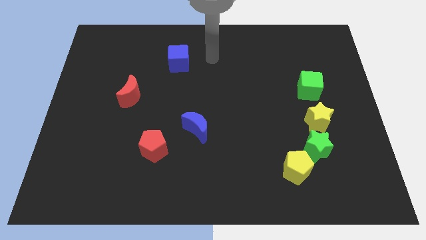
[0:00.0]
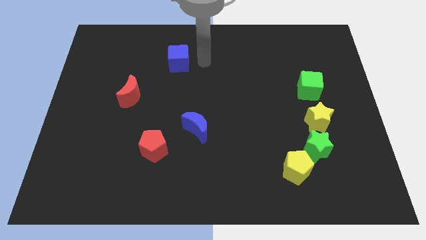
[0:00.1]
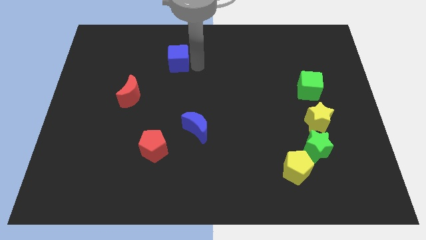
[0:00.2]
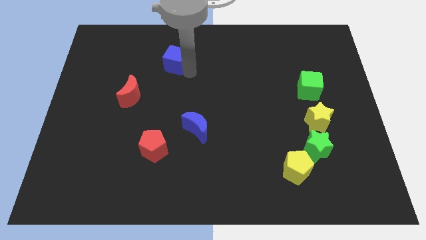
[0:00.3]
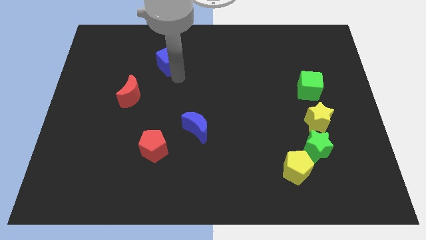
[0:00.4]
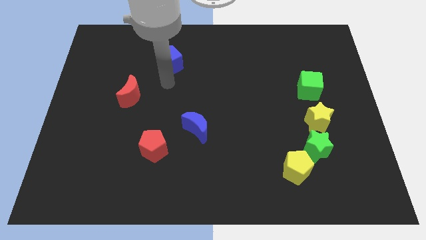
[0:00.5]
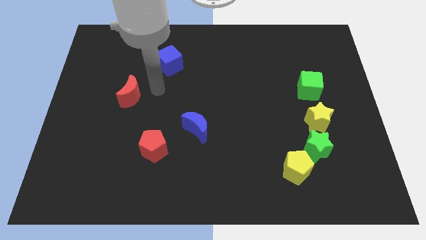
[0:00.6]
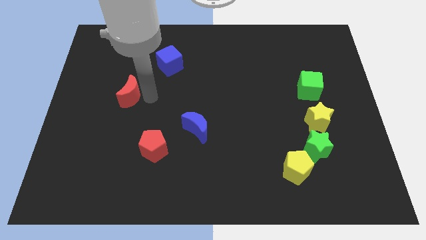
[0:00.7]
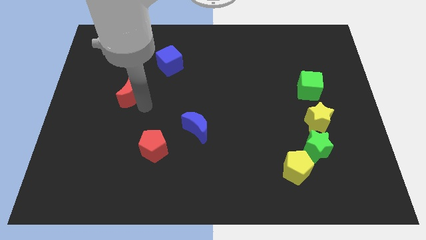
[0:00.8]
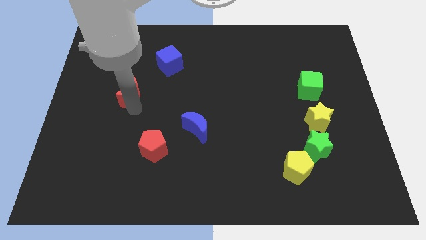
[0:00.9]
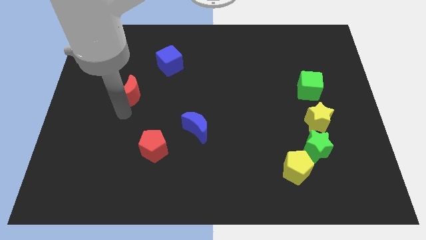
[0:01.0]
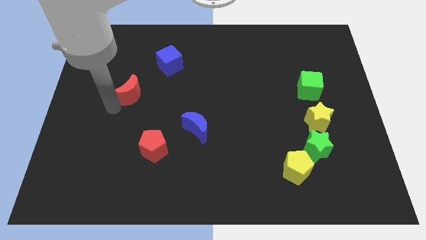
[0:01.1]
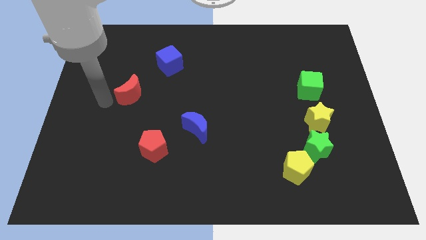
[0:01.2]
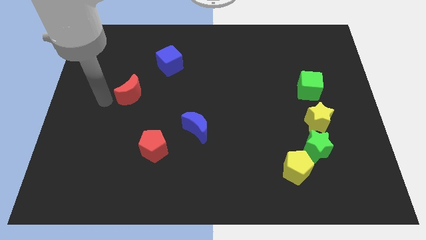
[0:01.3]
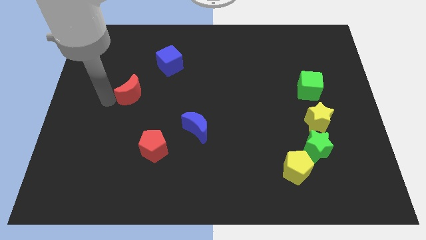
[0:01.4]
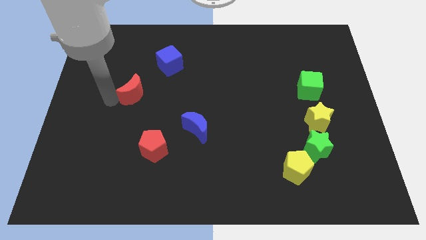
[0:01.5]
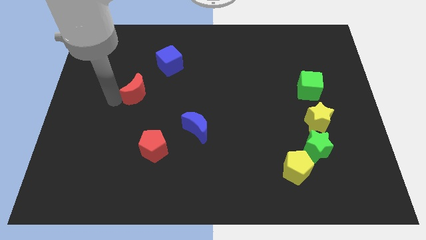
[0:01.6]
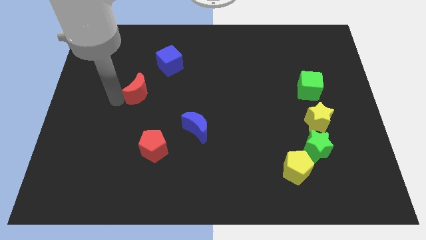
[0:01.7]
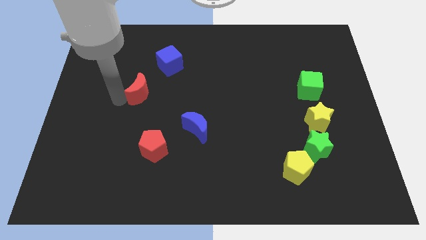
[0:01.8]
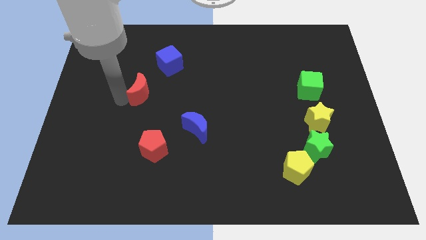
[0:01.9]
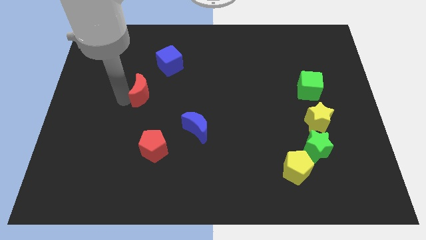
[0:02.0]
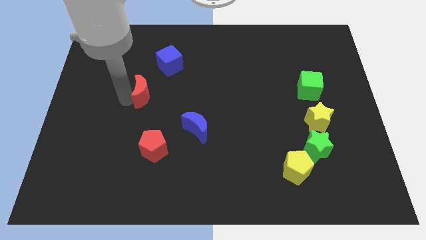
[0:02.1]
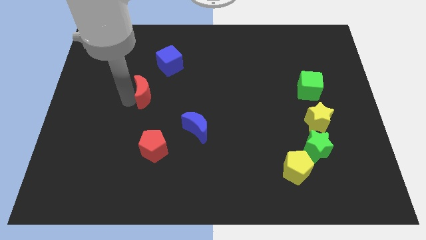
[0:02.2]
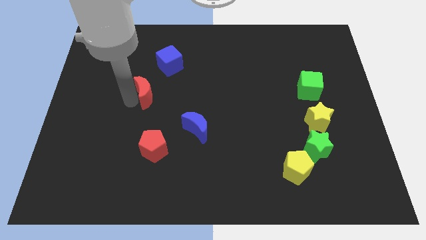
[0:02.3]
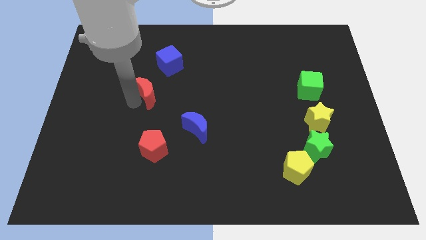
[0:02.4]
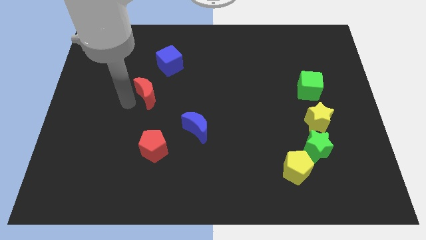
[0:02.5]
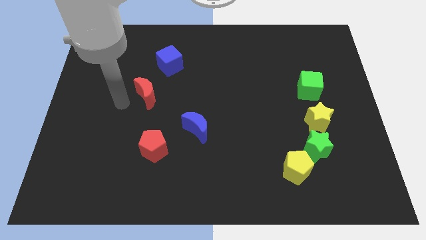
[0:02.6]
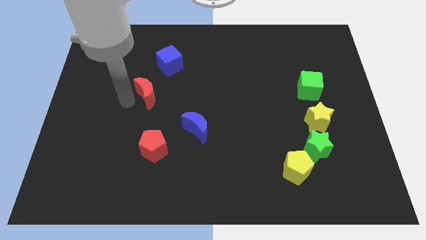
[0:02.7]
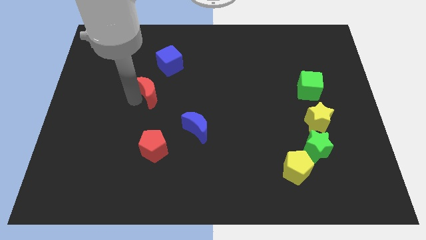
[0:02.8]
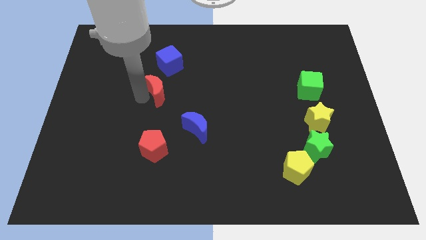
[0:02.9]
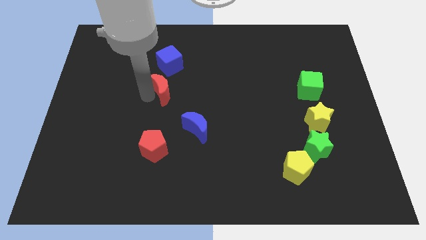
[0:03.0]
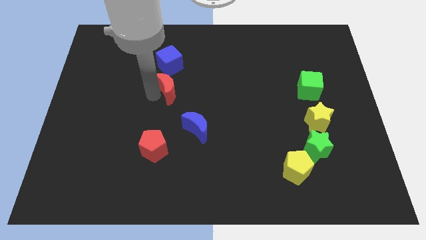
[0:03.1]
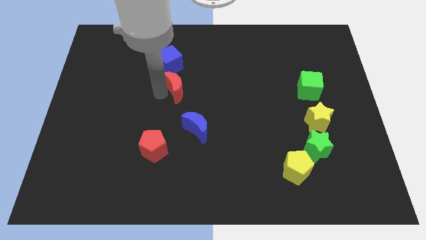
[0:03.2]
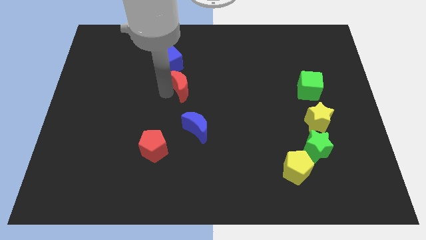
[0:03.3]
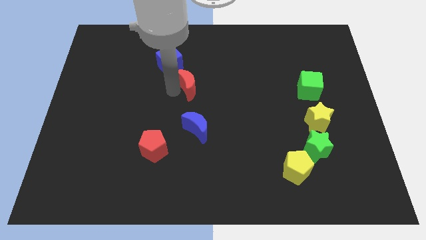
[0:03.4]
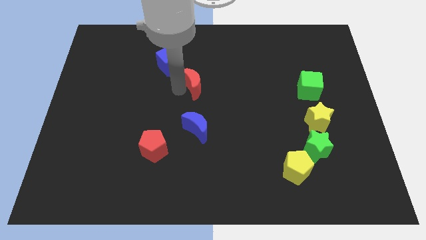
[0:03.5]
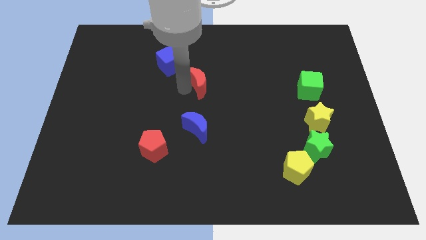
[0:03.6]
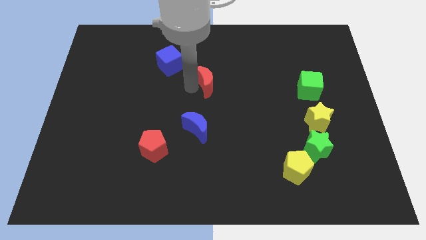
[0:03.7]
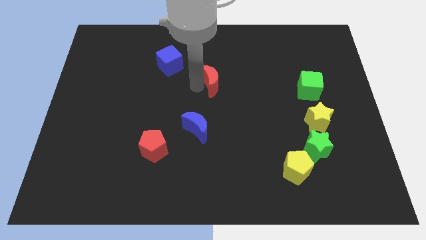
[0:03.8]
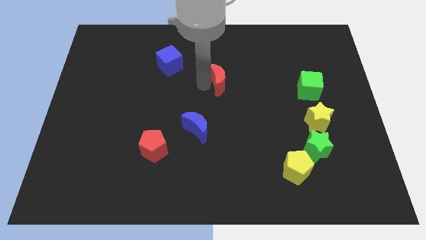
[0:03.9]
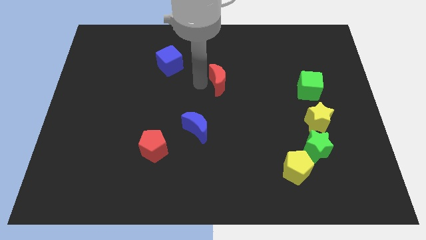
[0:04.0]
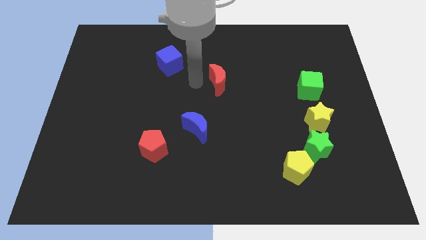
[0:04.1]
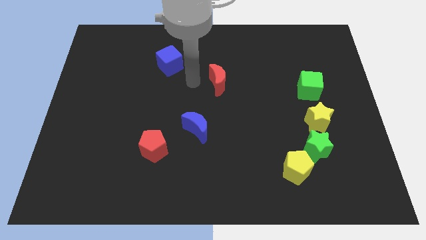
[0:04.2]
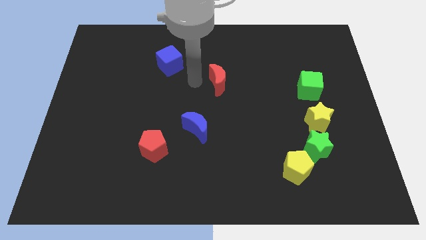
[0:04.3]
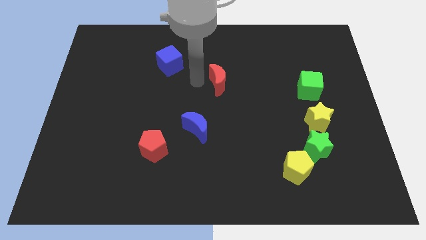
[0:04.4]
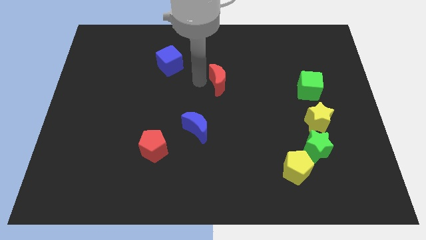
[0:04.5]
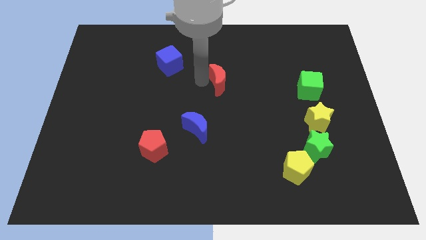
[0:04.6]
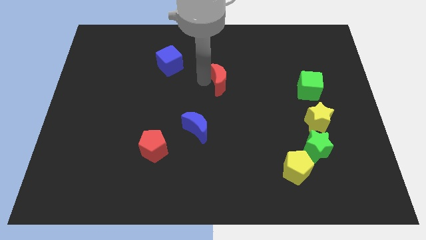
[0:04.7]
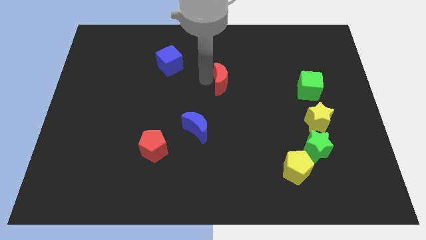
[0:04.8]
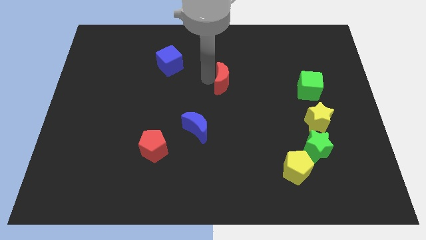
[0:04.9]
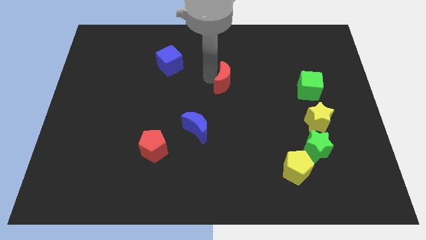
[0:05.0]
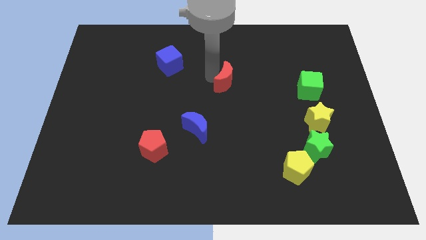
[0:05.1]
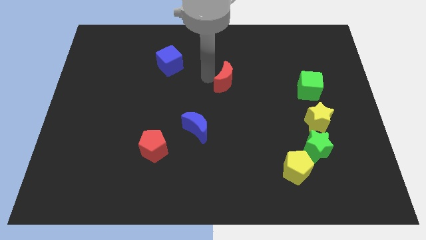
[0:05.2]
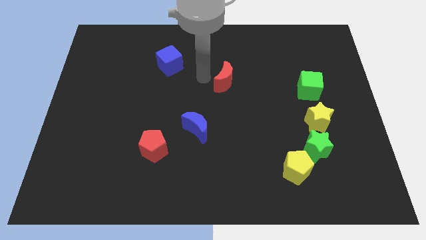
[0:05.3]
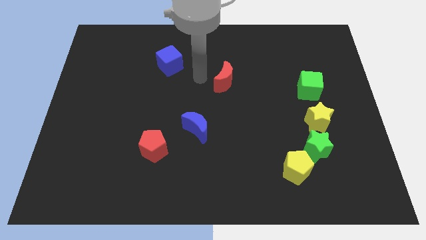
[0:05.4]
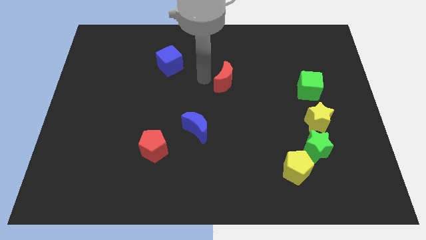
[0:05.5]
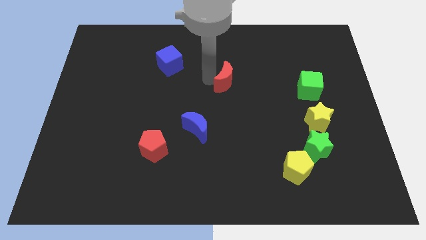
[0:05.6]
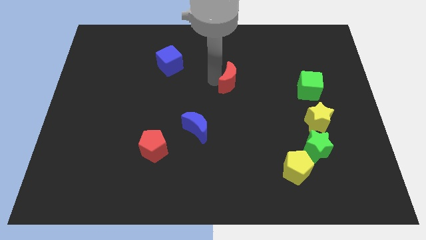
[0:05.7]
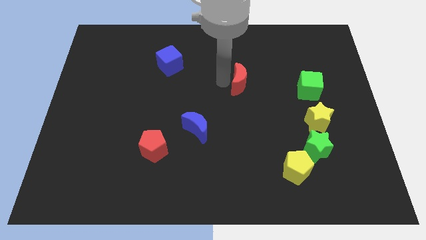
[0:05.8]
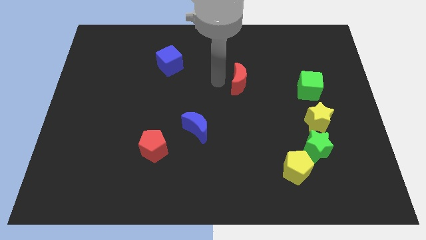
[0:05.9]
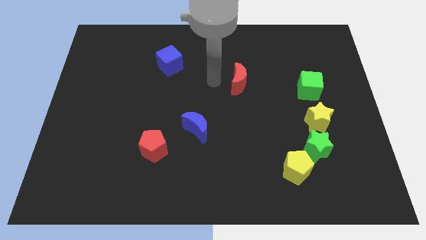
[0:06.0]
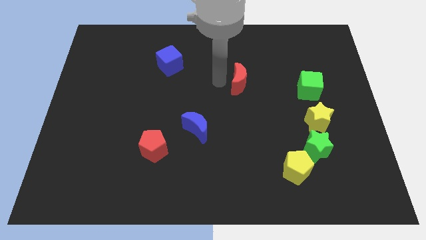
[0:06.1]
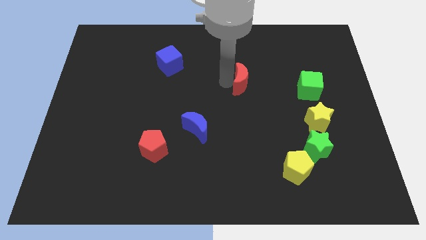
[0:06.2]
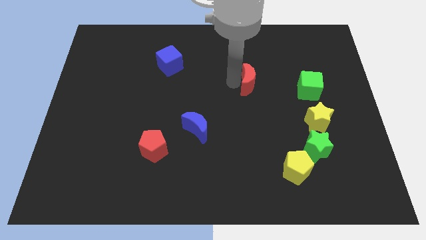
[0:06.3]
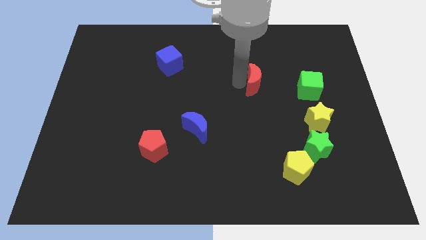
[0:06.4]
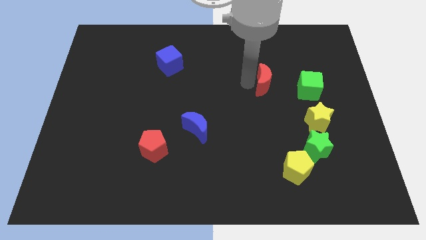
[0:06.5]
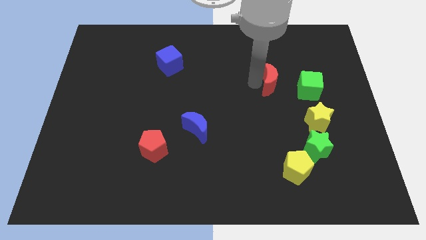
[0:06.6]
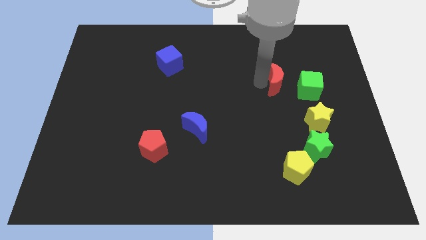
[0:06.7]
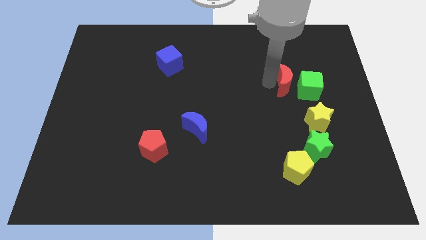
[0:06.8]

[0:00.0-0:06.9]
move the red moon towards the green cube
